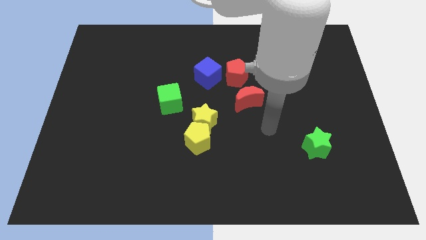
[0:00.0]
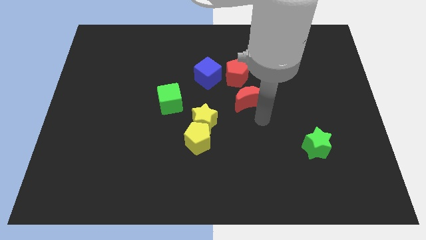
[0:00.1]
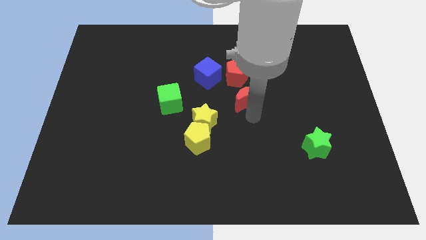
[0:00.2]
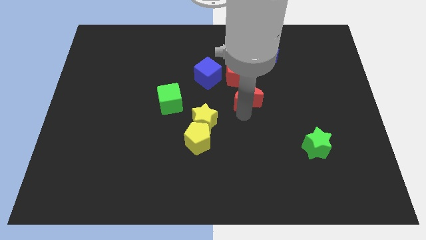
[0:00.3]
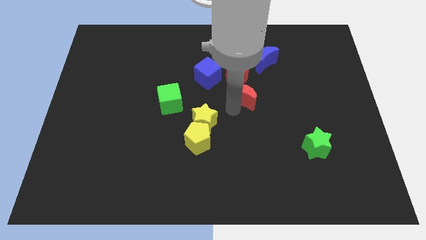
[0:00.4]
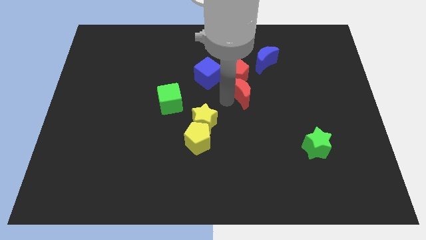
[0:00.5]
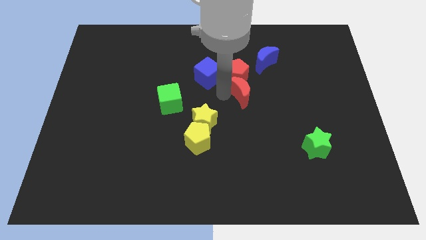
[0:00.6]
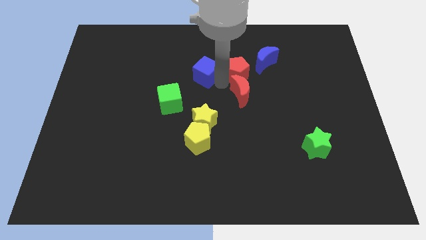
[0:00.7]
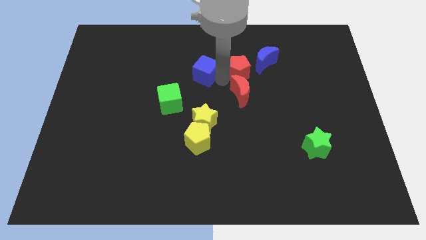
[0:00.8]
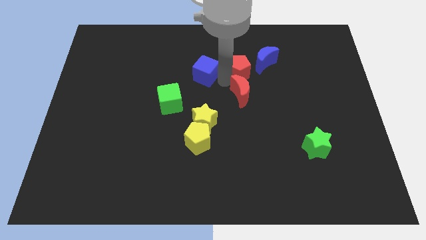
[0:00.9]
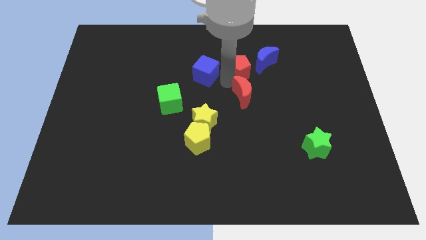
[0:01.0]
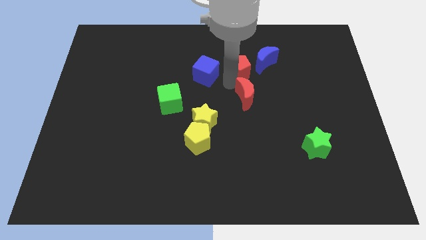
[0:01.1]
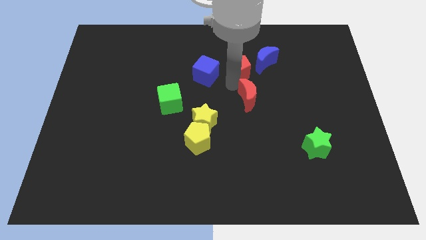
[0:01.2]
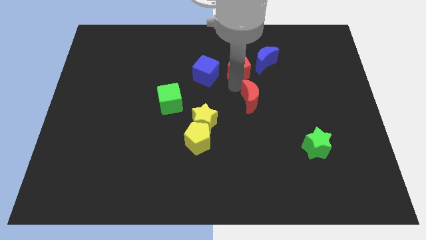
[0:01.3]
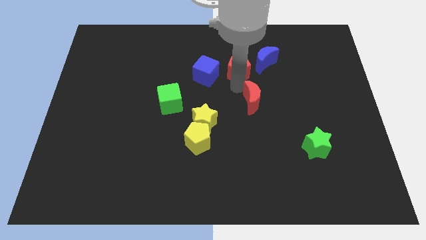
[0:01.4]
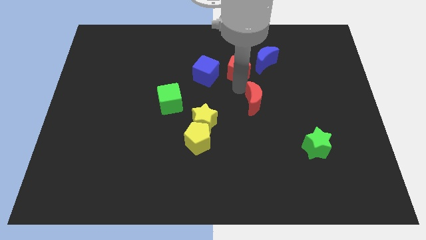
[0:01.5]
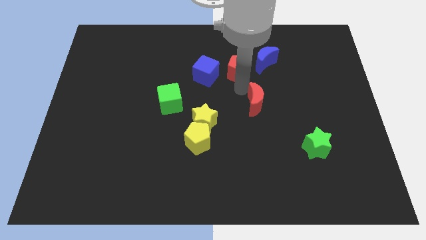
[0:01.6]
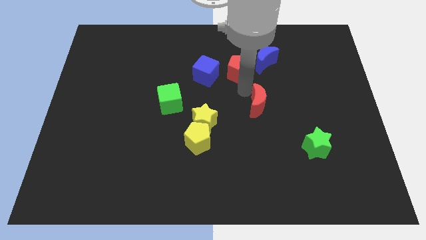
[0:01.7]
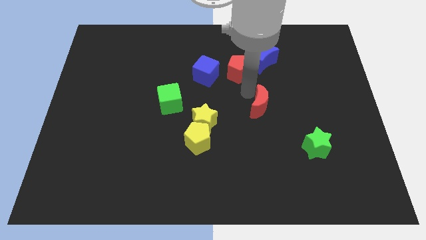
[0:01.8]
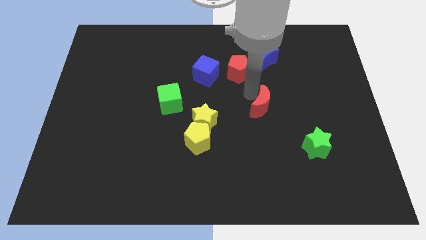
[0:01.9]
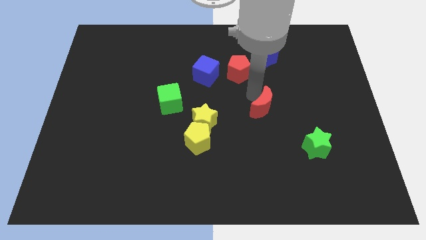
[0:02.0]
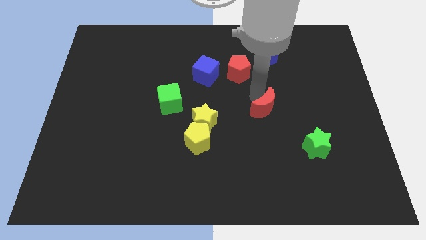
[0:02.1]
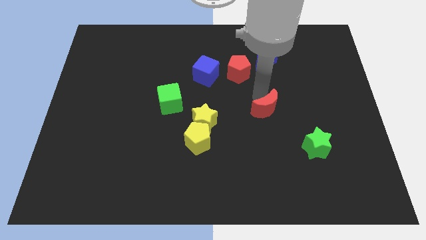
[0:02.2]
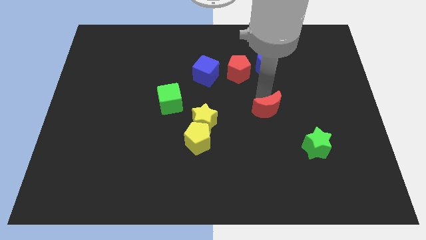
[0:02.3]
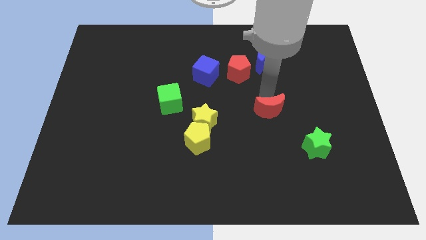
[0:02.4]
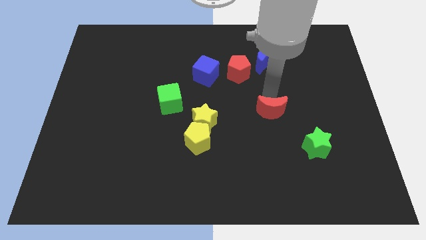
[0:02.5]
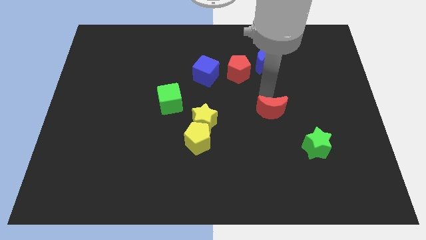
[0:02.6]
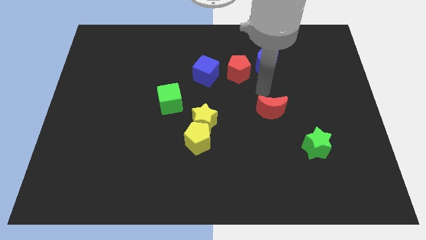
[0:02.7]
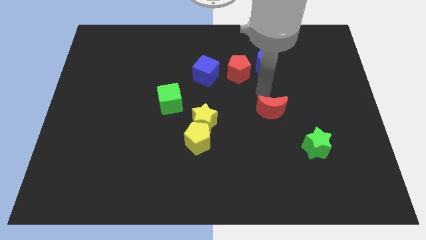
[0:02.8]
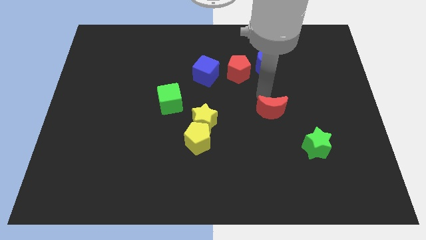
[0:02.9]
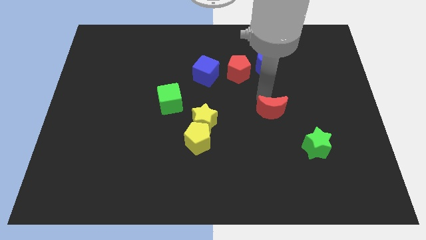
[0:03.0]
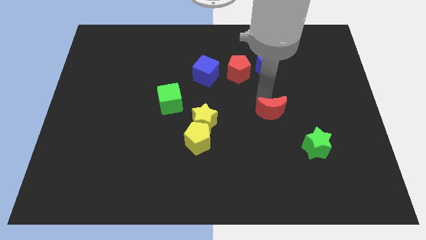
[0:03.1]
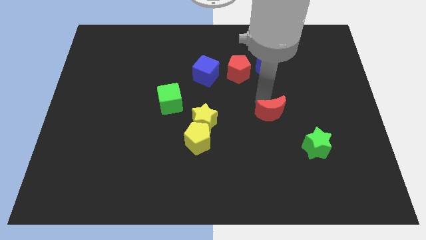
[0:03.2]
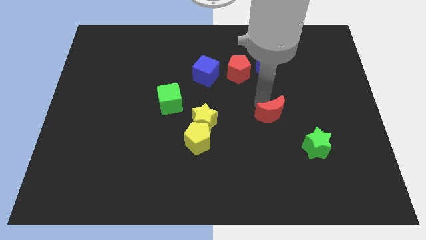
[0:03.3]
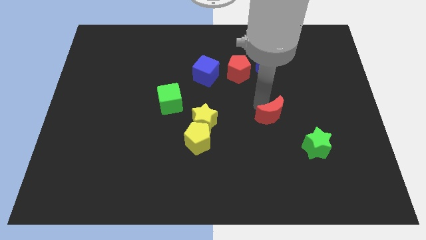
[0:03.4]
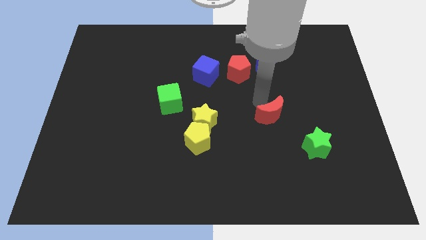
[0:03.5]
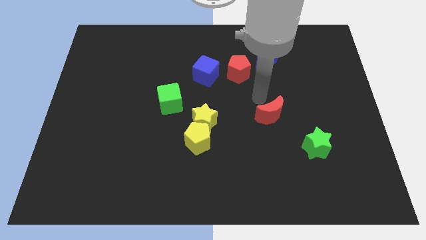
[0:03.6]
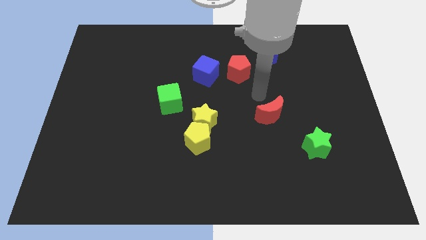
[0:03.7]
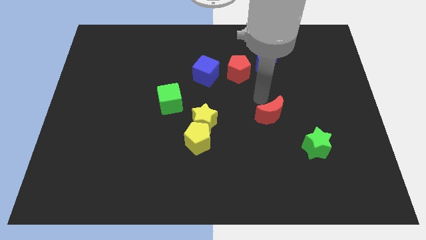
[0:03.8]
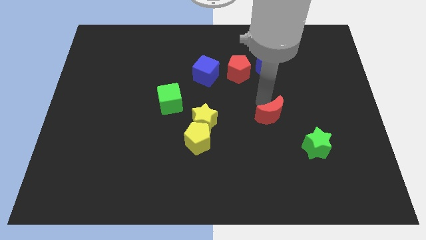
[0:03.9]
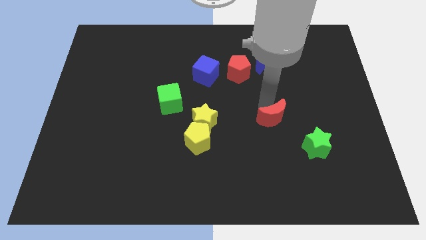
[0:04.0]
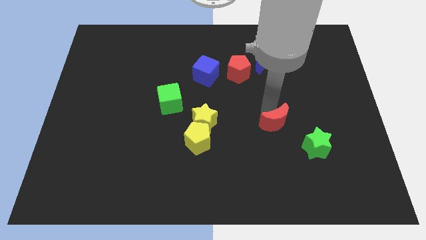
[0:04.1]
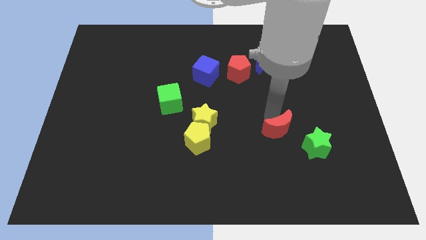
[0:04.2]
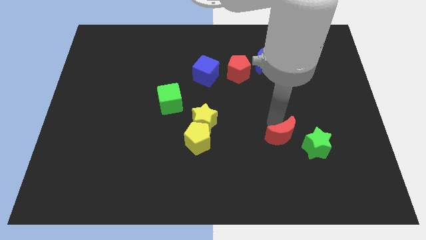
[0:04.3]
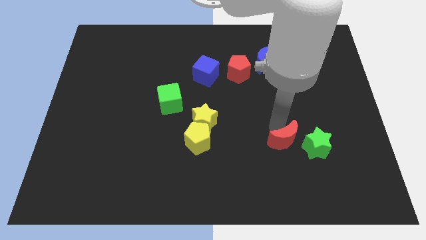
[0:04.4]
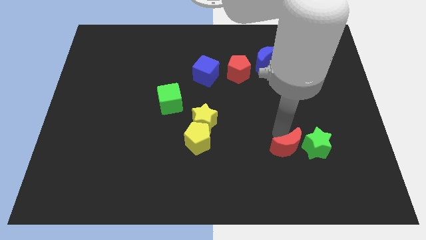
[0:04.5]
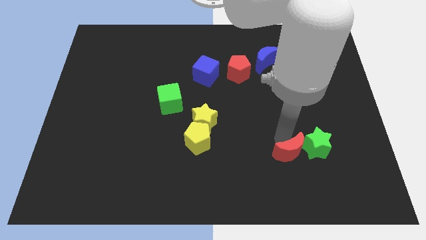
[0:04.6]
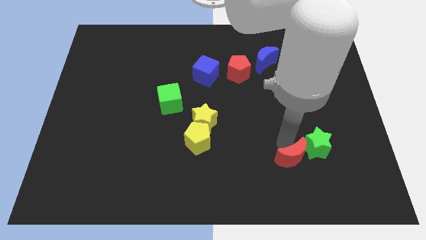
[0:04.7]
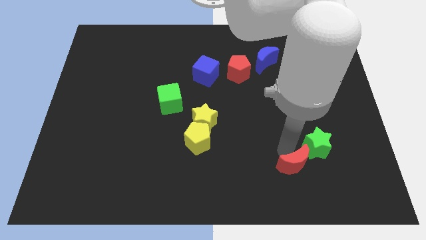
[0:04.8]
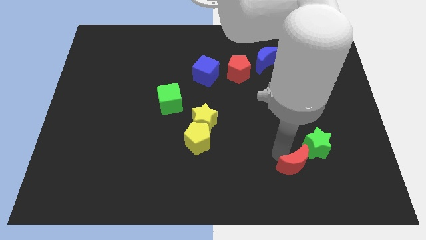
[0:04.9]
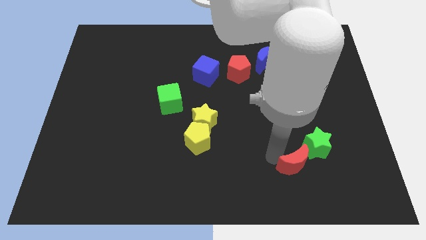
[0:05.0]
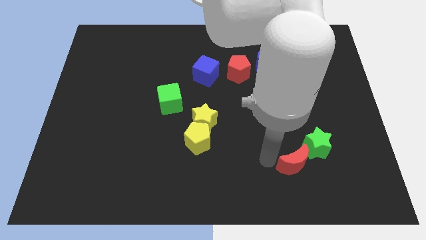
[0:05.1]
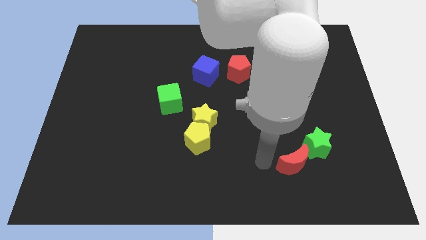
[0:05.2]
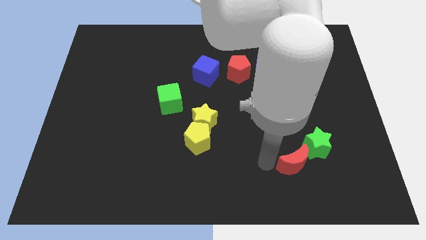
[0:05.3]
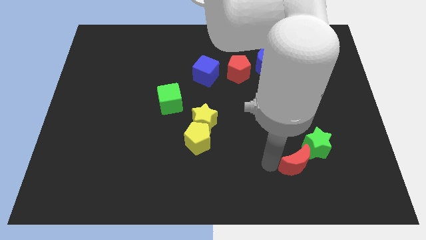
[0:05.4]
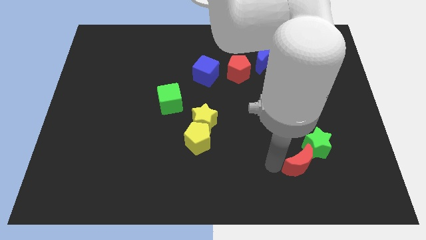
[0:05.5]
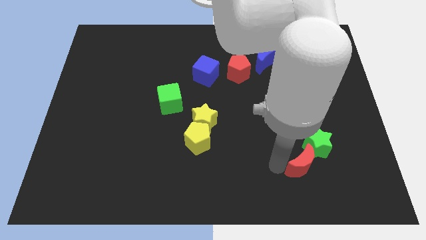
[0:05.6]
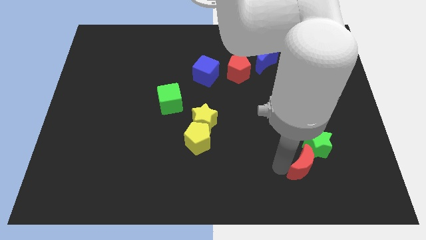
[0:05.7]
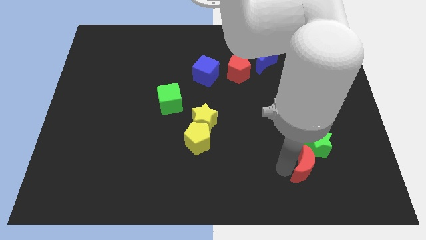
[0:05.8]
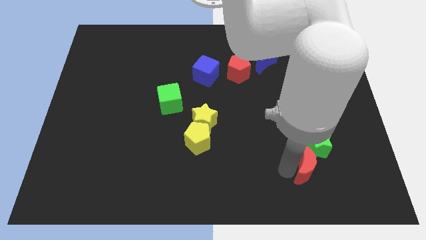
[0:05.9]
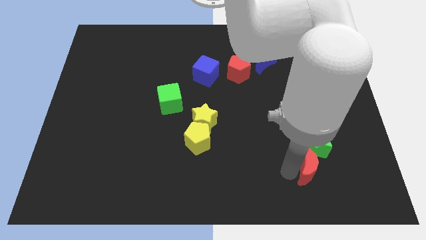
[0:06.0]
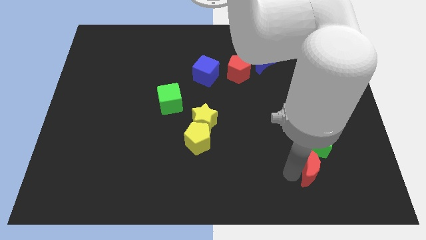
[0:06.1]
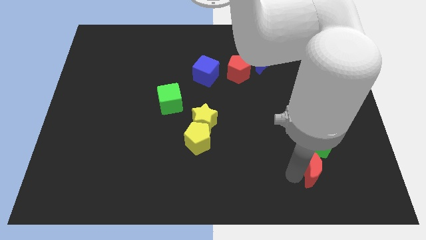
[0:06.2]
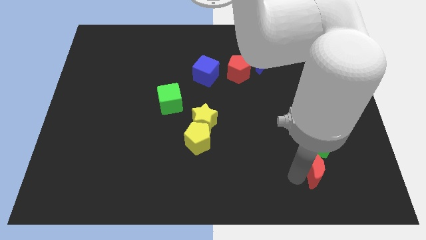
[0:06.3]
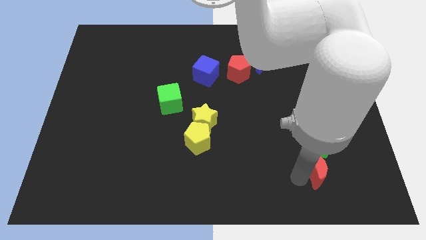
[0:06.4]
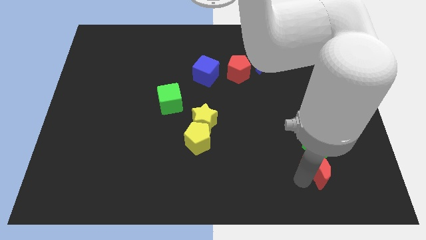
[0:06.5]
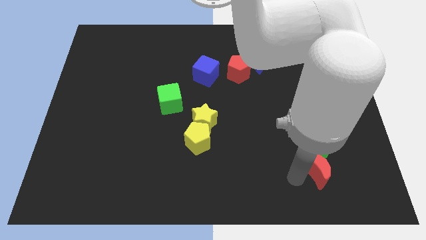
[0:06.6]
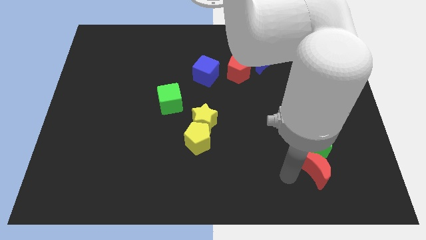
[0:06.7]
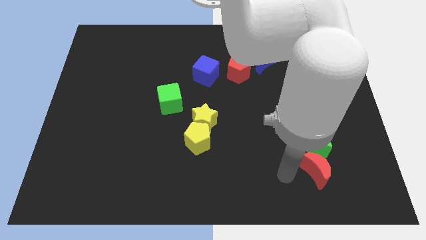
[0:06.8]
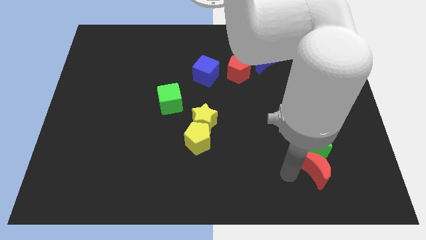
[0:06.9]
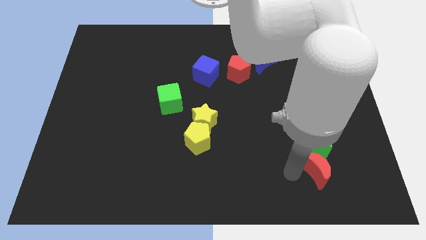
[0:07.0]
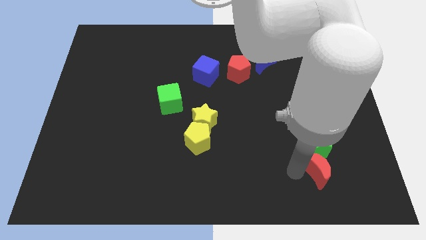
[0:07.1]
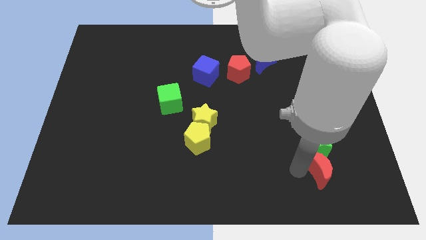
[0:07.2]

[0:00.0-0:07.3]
put the red moon to the bottom right of the green star

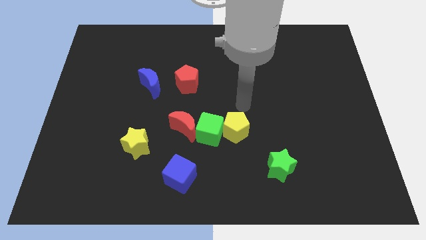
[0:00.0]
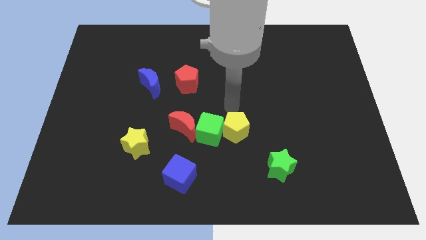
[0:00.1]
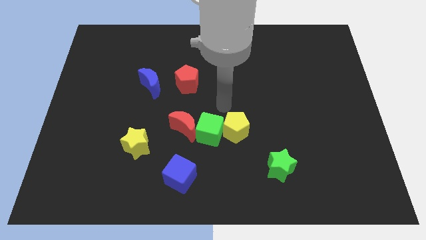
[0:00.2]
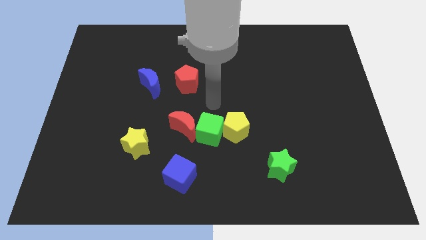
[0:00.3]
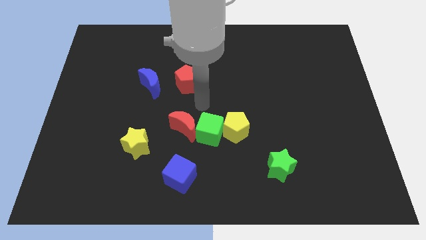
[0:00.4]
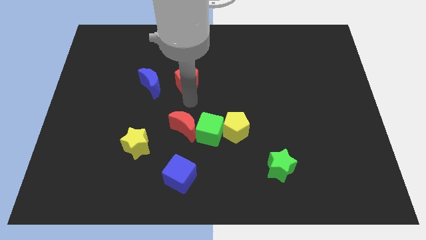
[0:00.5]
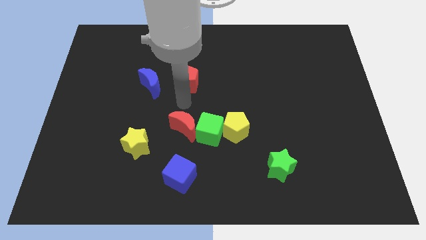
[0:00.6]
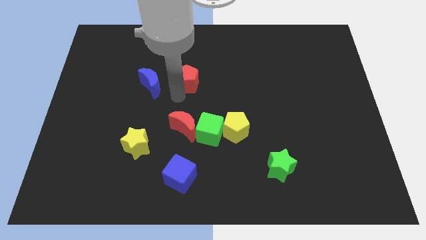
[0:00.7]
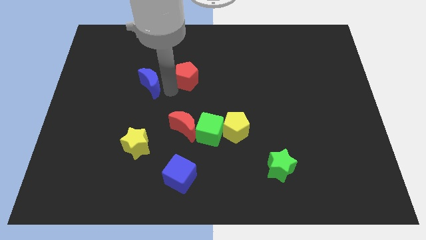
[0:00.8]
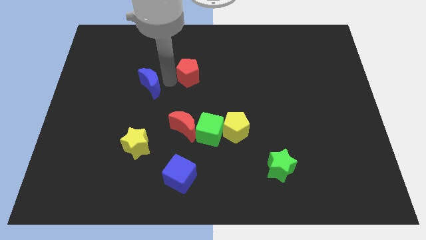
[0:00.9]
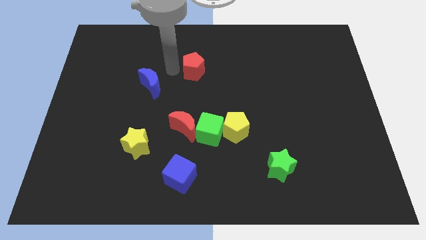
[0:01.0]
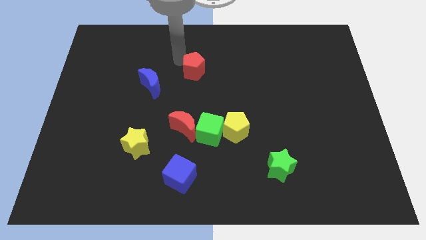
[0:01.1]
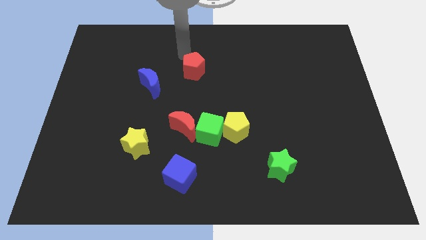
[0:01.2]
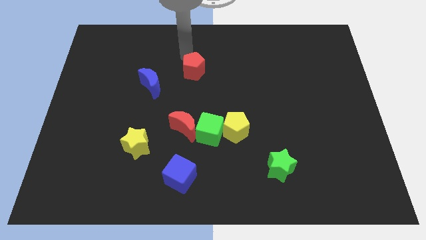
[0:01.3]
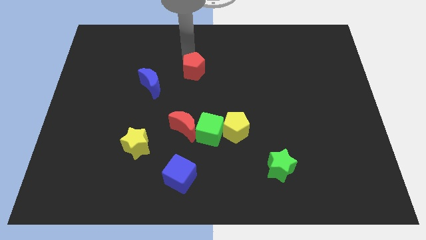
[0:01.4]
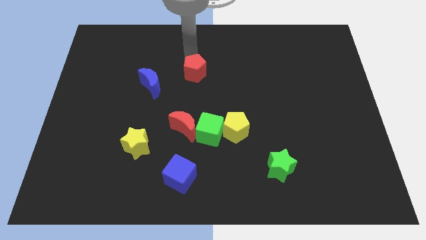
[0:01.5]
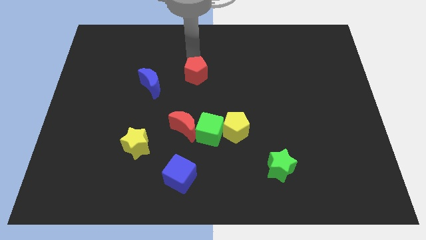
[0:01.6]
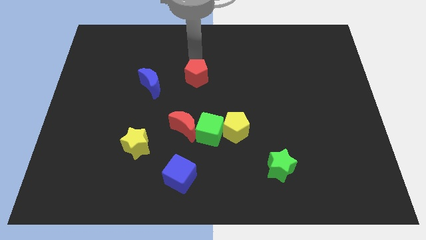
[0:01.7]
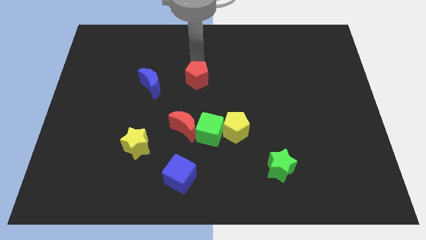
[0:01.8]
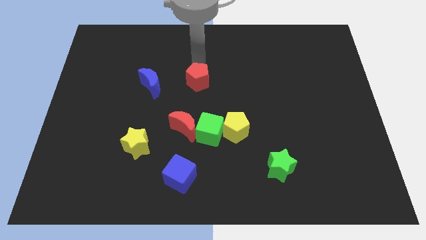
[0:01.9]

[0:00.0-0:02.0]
slide the red pentagon to the top of the green cube
